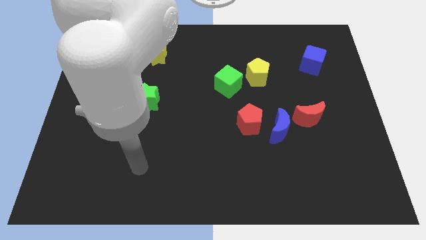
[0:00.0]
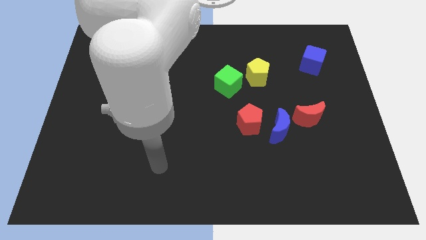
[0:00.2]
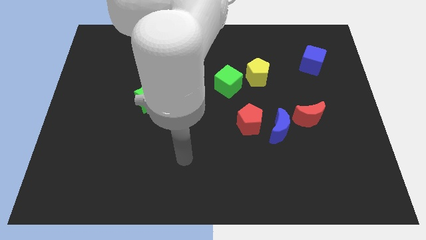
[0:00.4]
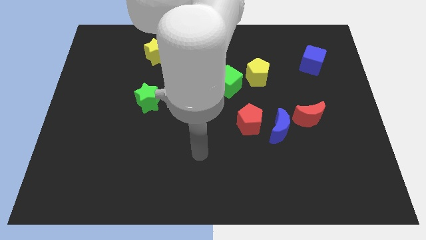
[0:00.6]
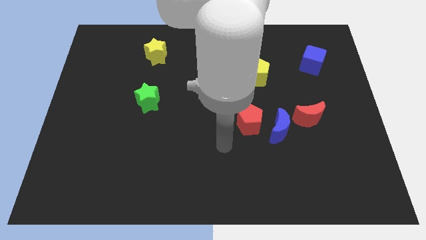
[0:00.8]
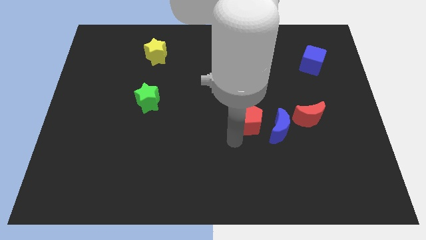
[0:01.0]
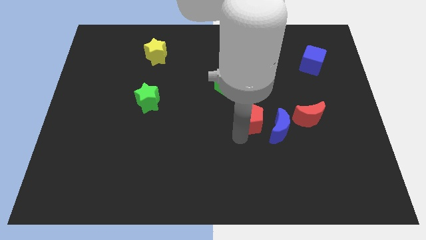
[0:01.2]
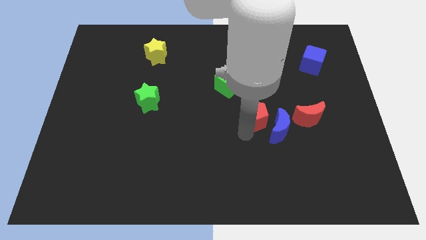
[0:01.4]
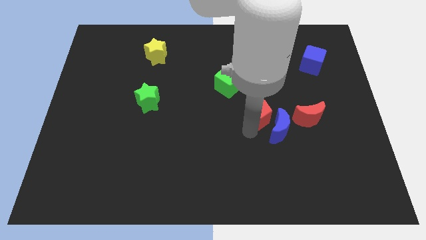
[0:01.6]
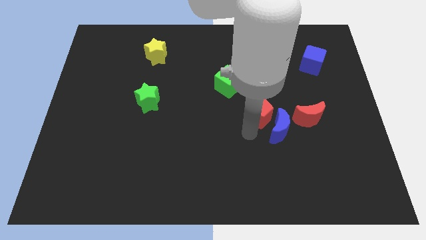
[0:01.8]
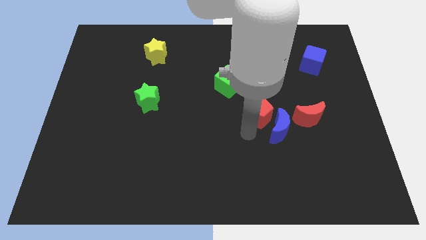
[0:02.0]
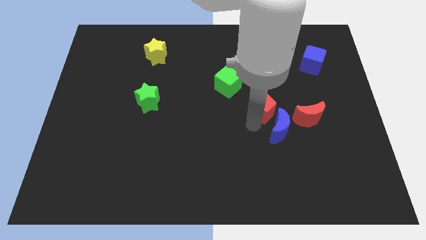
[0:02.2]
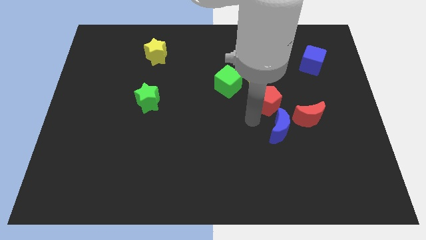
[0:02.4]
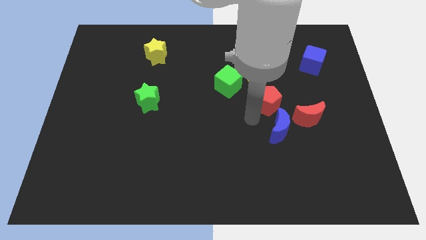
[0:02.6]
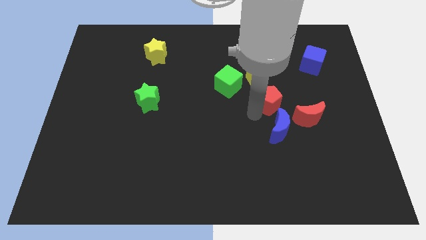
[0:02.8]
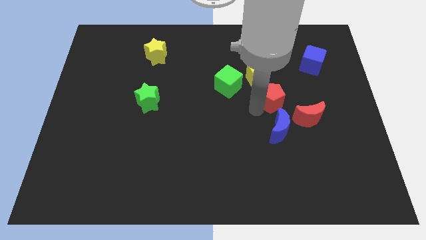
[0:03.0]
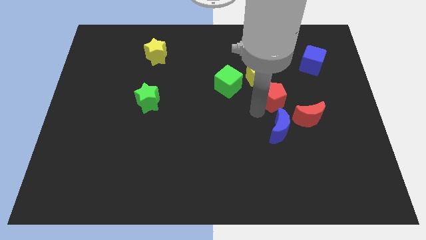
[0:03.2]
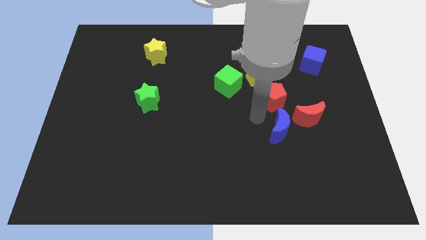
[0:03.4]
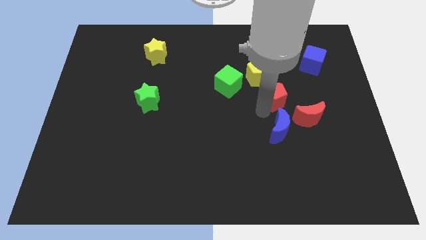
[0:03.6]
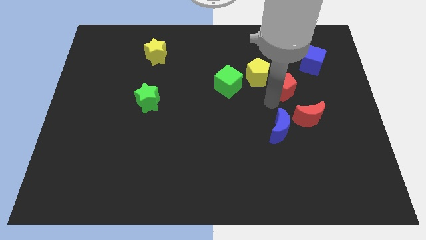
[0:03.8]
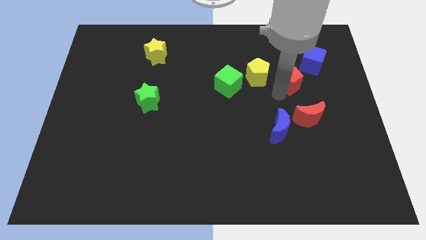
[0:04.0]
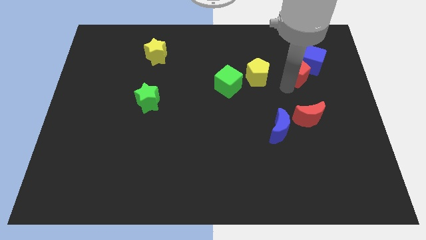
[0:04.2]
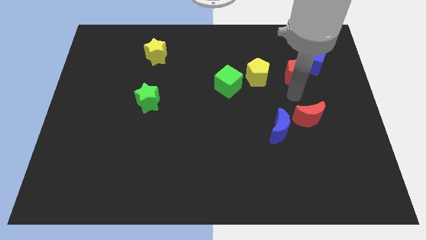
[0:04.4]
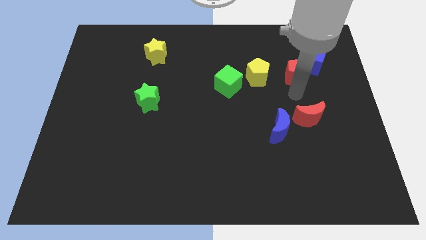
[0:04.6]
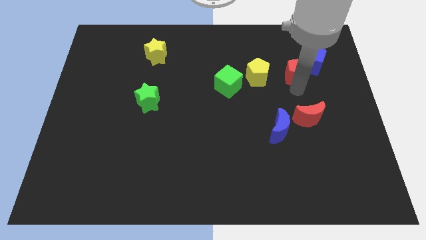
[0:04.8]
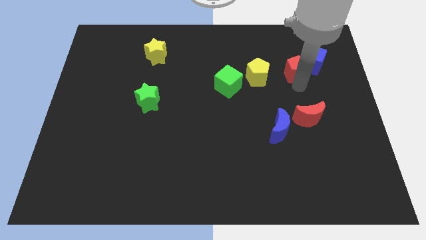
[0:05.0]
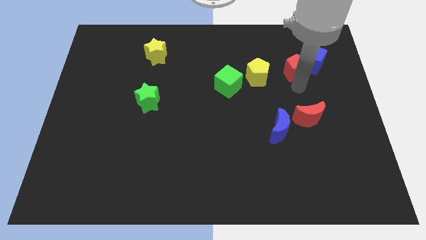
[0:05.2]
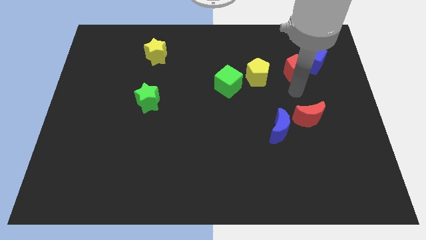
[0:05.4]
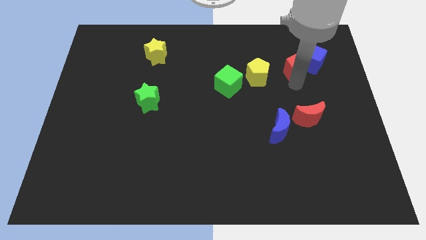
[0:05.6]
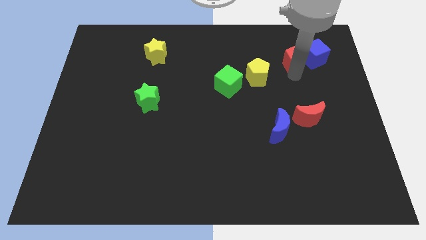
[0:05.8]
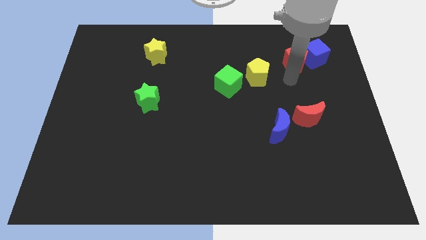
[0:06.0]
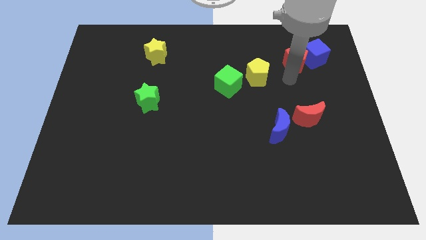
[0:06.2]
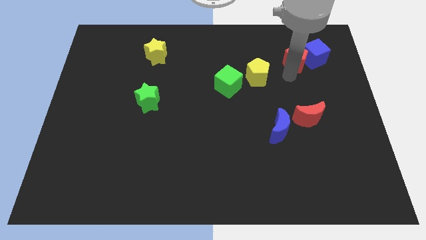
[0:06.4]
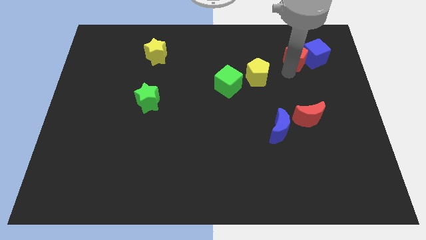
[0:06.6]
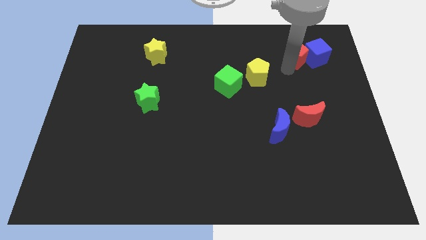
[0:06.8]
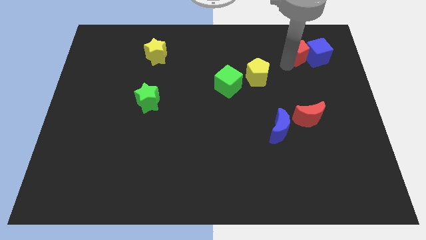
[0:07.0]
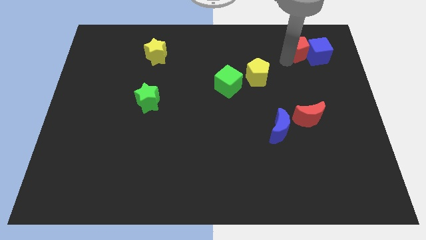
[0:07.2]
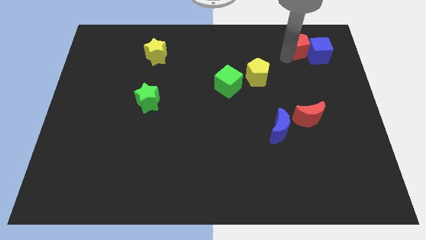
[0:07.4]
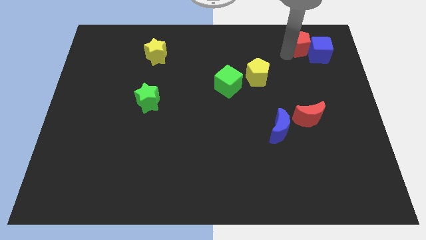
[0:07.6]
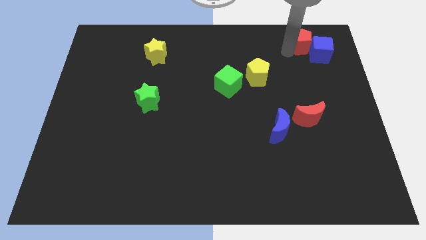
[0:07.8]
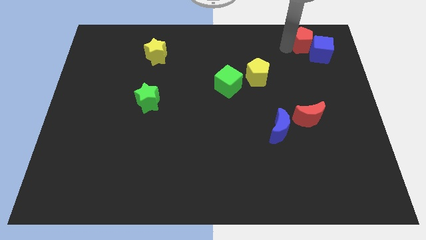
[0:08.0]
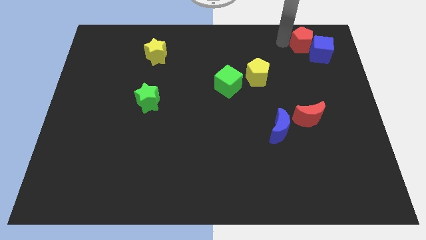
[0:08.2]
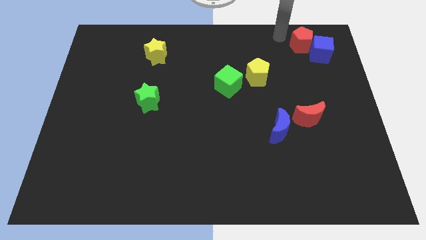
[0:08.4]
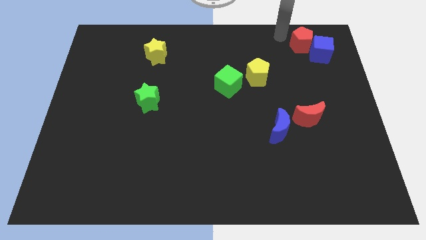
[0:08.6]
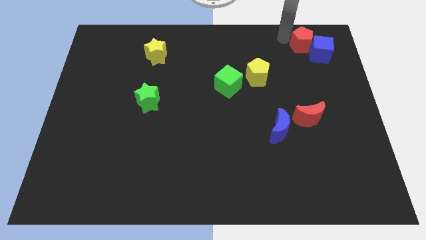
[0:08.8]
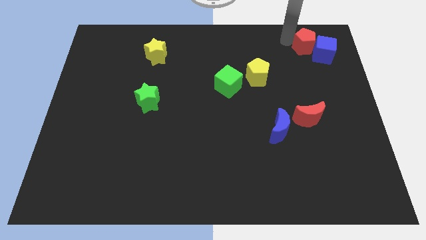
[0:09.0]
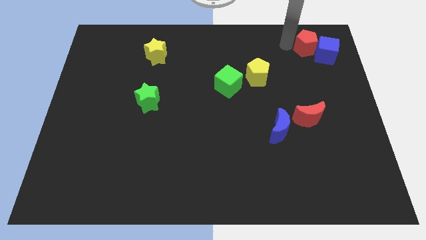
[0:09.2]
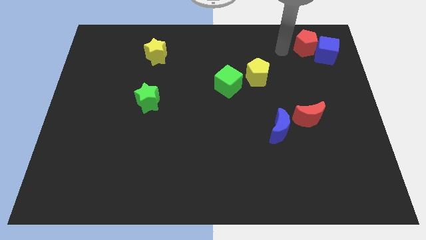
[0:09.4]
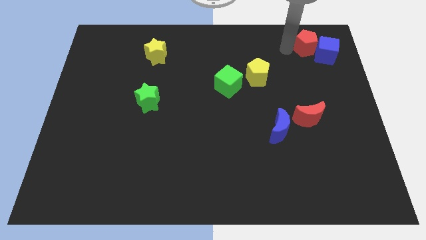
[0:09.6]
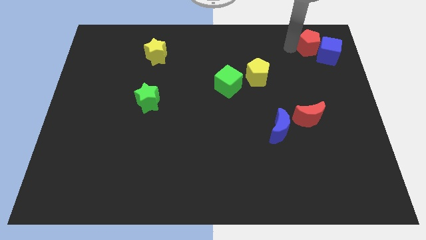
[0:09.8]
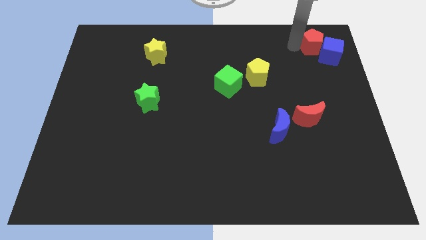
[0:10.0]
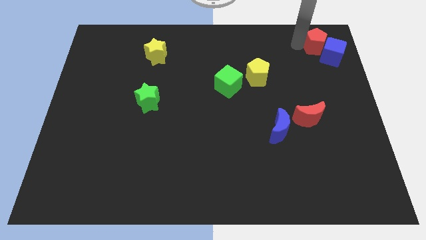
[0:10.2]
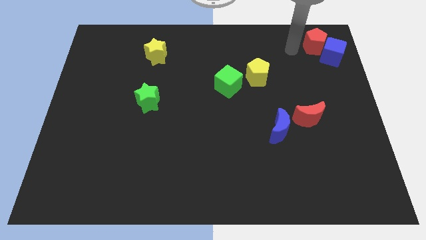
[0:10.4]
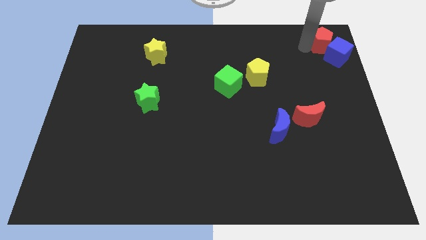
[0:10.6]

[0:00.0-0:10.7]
push the red pentagon to the top right
